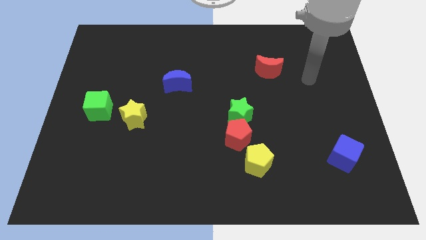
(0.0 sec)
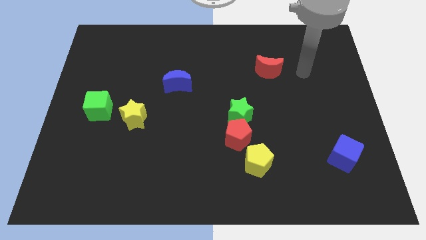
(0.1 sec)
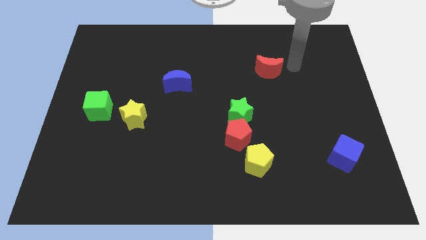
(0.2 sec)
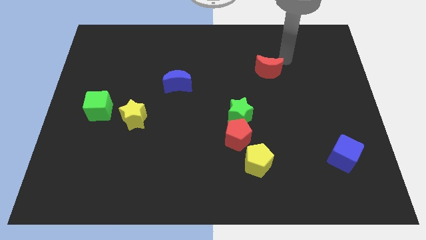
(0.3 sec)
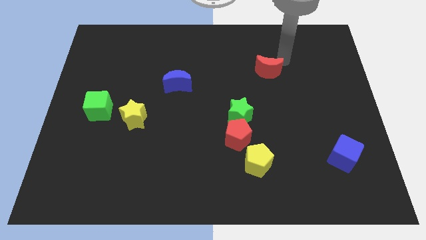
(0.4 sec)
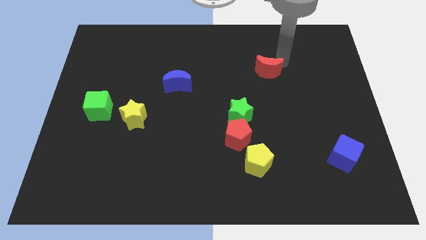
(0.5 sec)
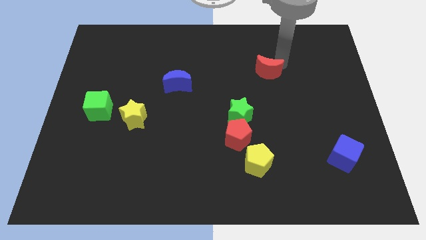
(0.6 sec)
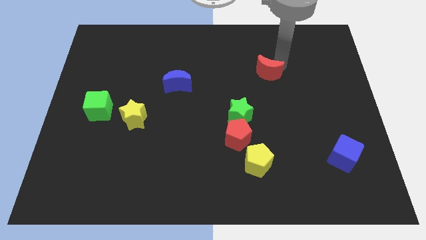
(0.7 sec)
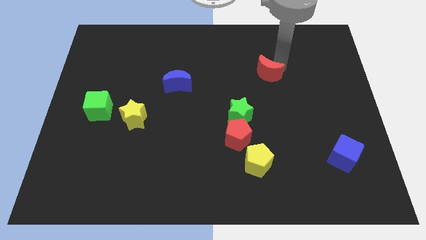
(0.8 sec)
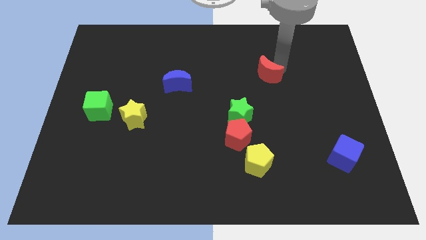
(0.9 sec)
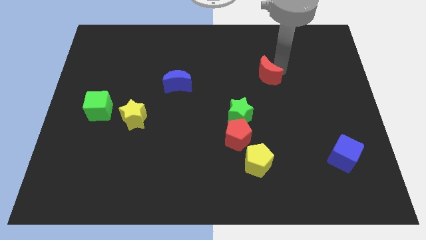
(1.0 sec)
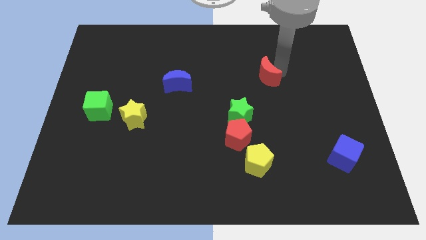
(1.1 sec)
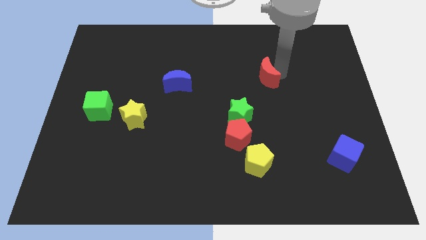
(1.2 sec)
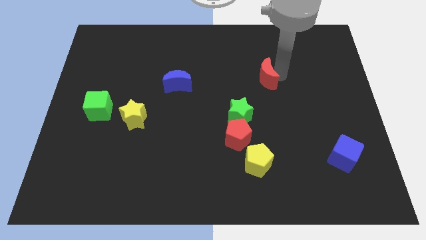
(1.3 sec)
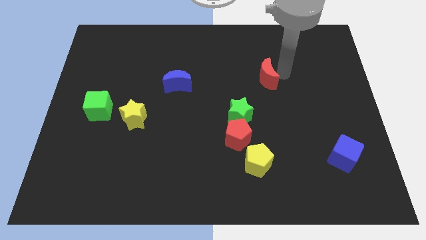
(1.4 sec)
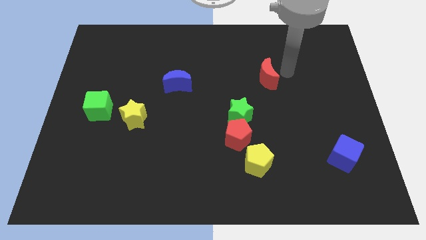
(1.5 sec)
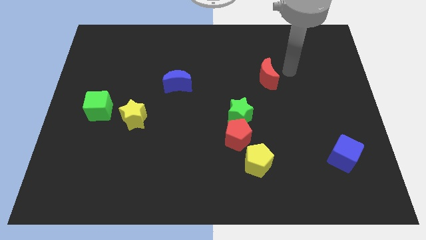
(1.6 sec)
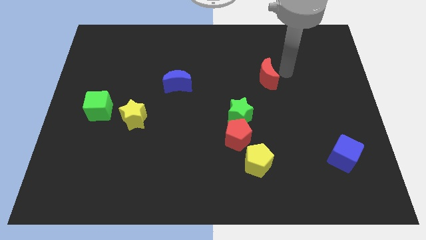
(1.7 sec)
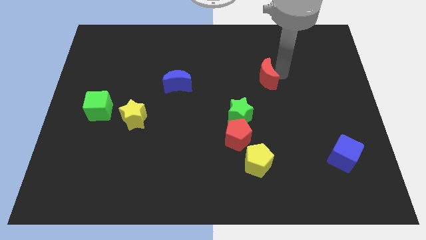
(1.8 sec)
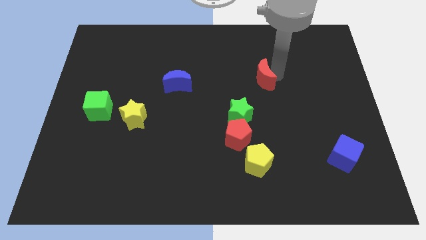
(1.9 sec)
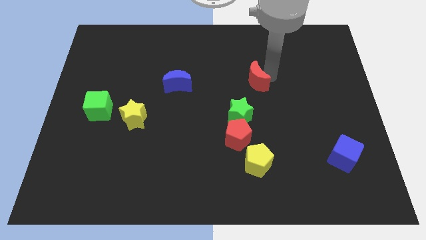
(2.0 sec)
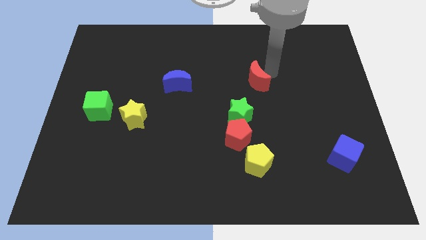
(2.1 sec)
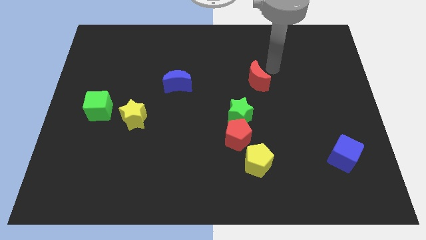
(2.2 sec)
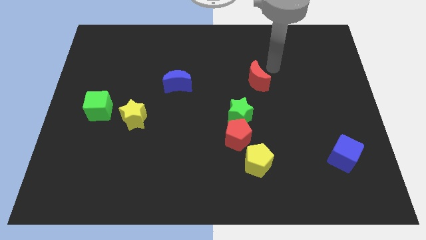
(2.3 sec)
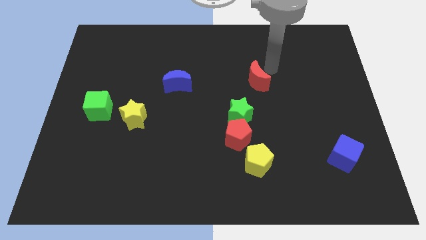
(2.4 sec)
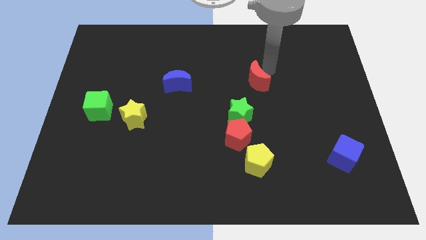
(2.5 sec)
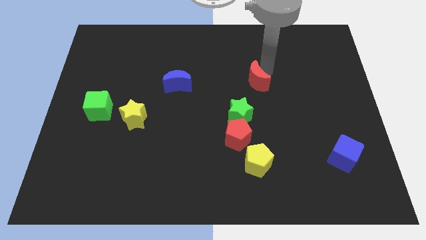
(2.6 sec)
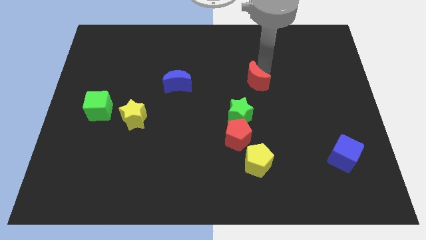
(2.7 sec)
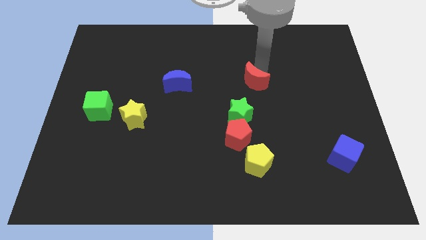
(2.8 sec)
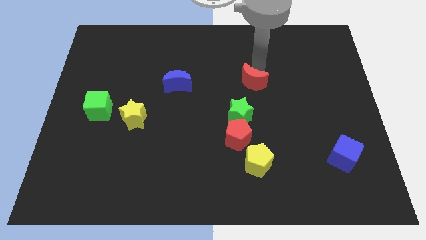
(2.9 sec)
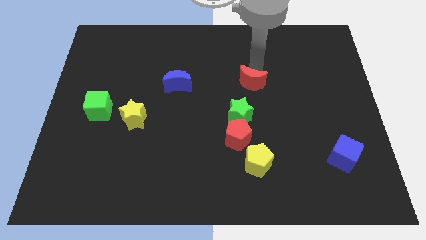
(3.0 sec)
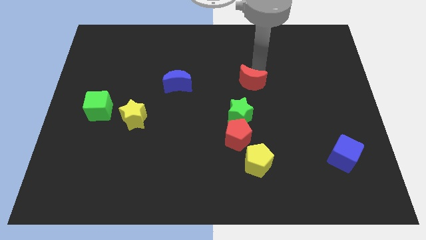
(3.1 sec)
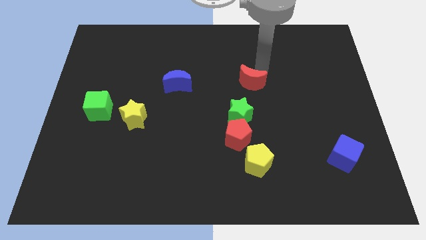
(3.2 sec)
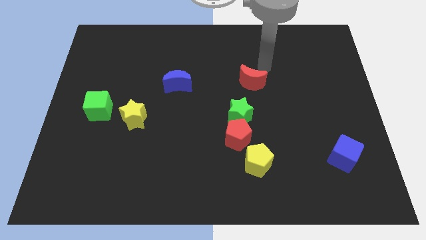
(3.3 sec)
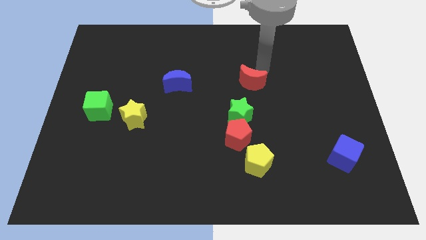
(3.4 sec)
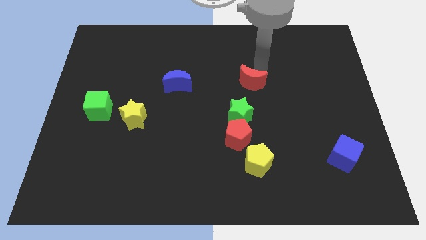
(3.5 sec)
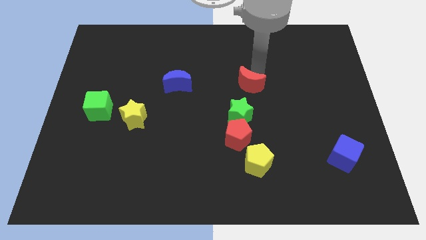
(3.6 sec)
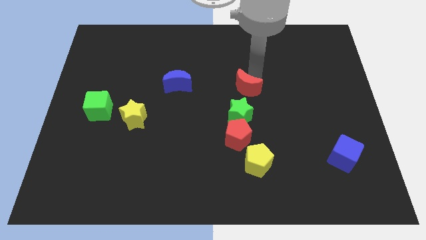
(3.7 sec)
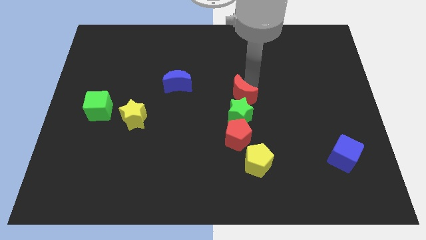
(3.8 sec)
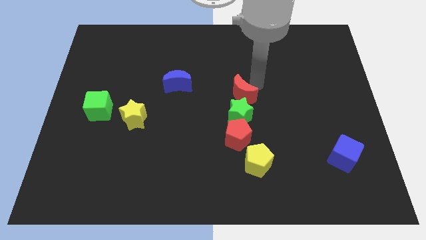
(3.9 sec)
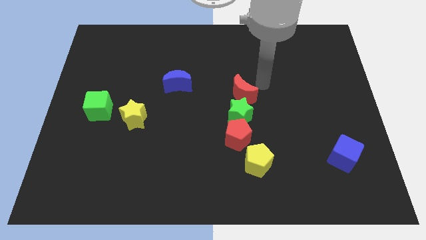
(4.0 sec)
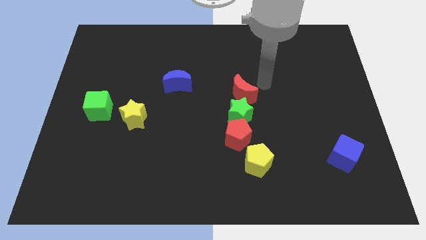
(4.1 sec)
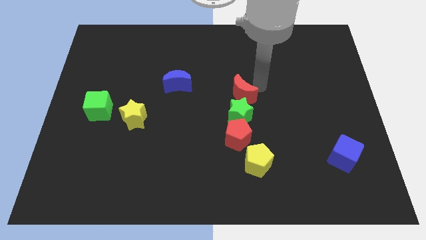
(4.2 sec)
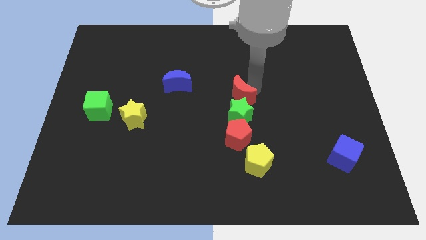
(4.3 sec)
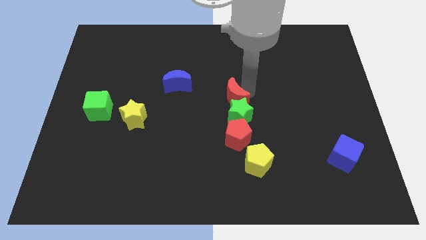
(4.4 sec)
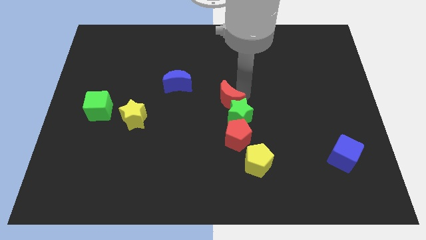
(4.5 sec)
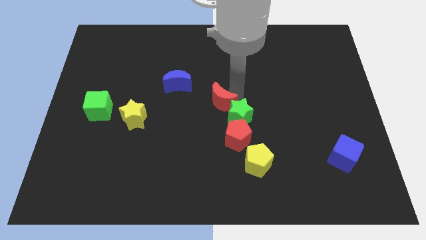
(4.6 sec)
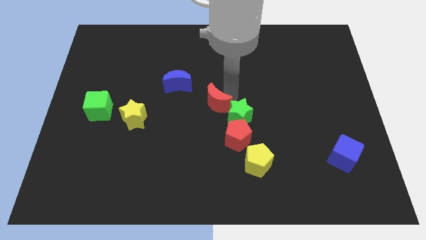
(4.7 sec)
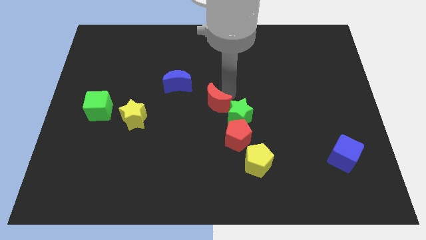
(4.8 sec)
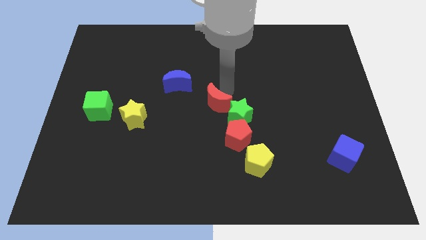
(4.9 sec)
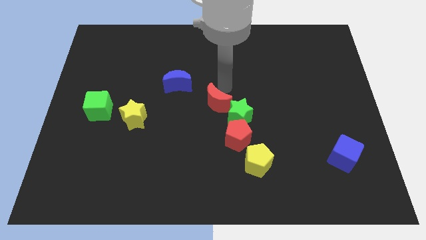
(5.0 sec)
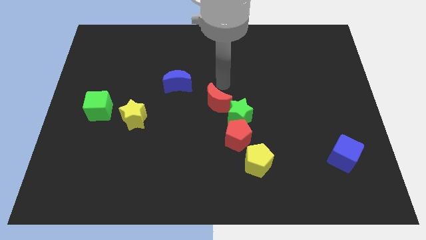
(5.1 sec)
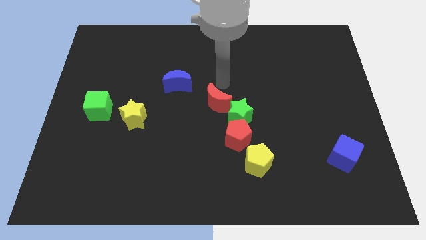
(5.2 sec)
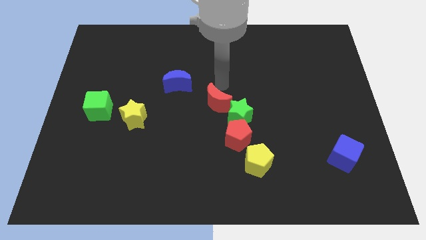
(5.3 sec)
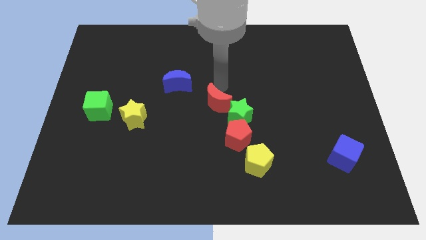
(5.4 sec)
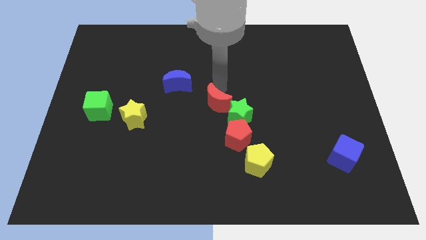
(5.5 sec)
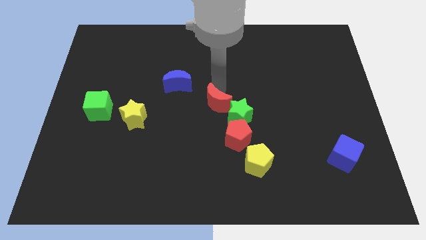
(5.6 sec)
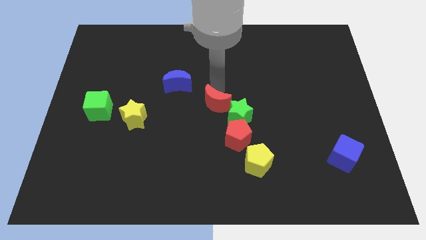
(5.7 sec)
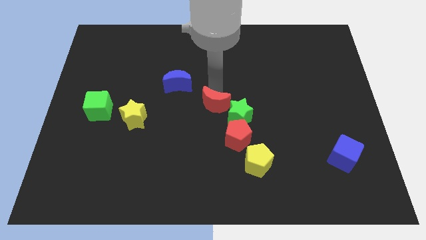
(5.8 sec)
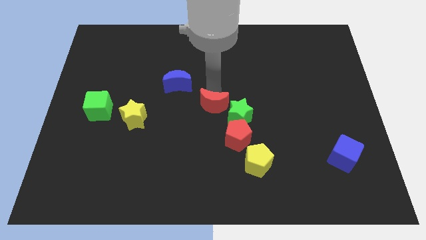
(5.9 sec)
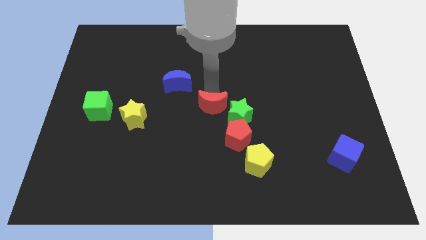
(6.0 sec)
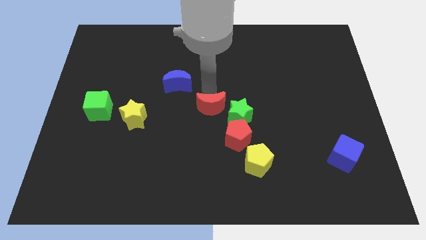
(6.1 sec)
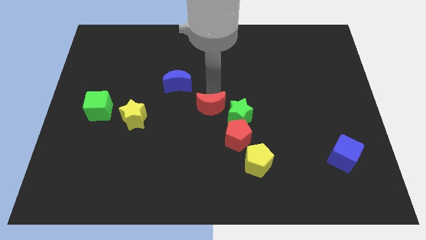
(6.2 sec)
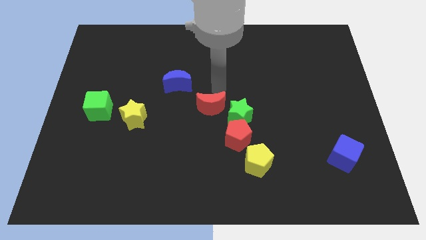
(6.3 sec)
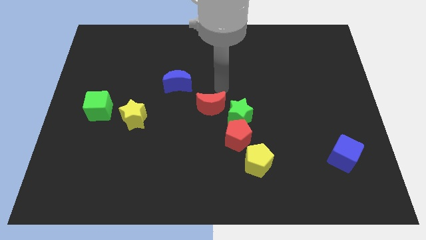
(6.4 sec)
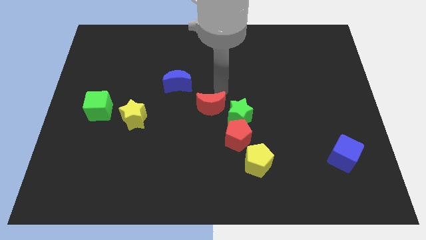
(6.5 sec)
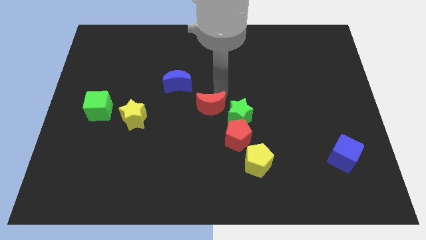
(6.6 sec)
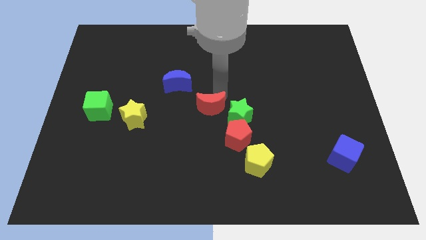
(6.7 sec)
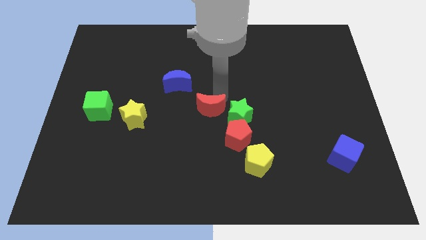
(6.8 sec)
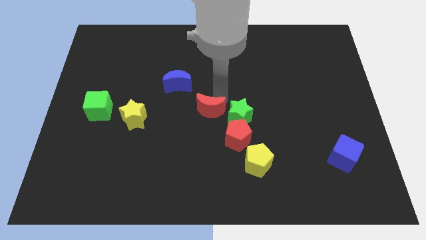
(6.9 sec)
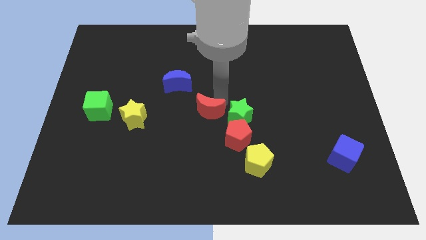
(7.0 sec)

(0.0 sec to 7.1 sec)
move the red moon downwards and then to the left

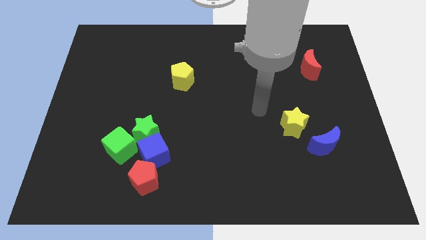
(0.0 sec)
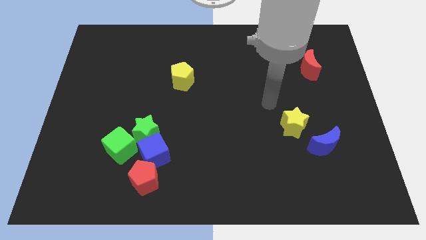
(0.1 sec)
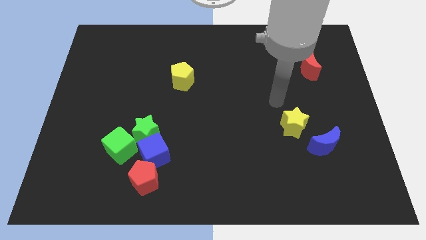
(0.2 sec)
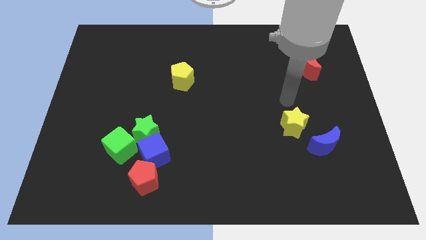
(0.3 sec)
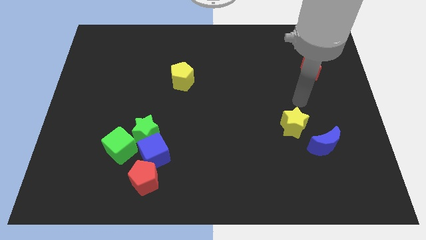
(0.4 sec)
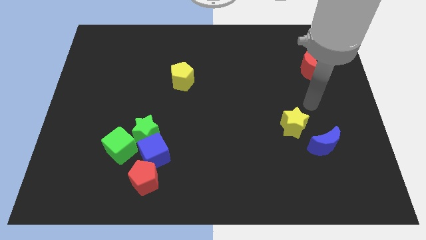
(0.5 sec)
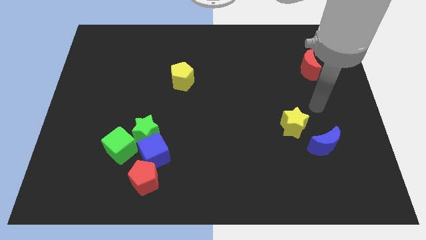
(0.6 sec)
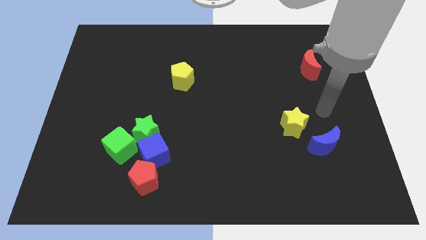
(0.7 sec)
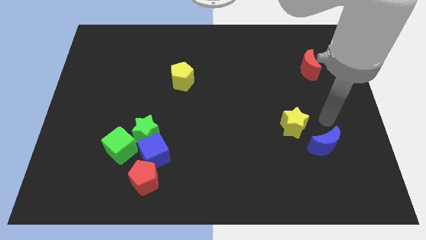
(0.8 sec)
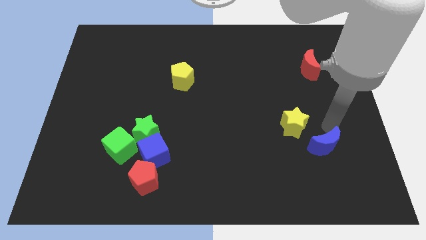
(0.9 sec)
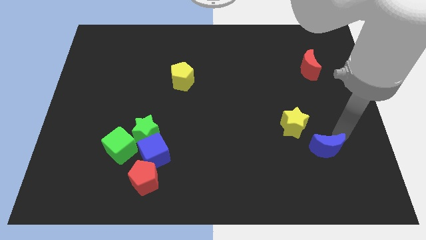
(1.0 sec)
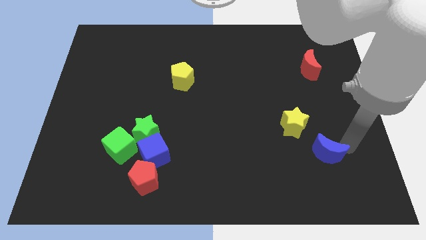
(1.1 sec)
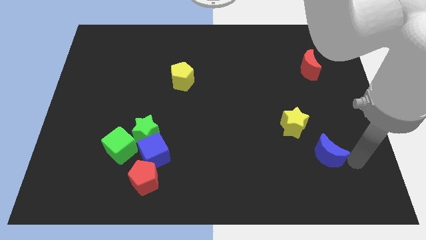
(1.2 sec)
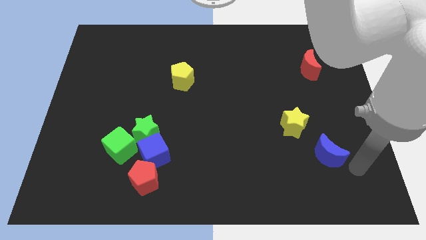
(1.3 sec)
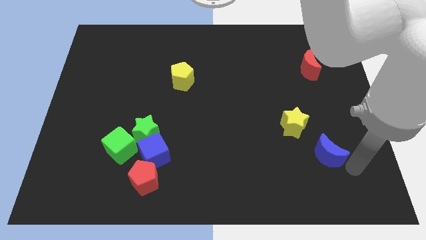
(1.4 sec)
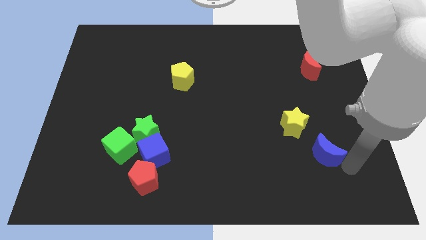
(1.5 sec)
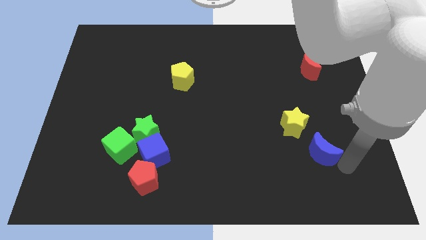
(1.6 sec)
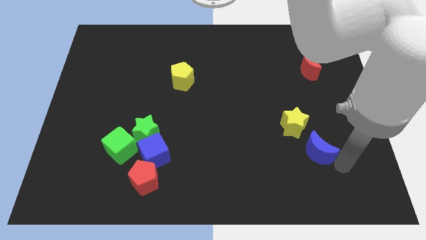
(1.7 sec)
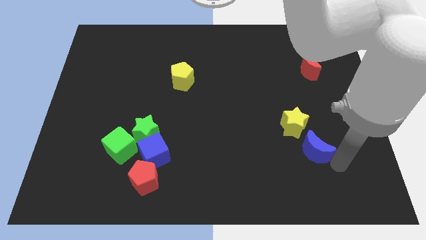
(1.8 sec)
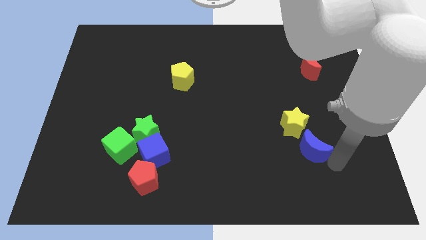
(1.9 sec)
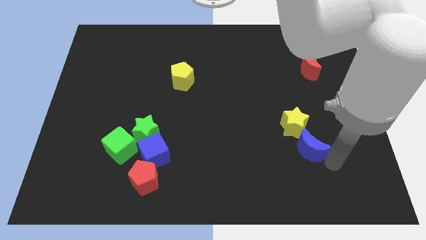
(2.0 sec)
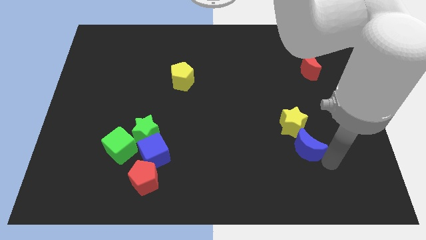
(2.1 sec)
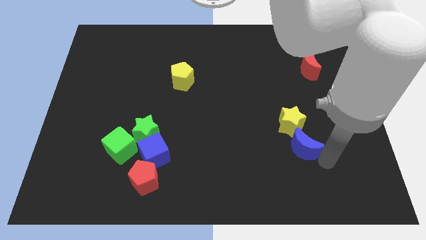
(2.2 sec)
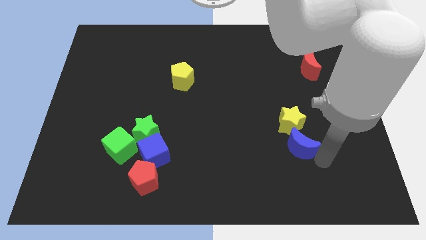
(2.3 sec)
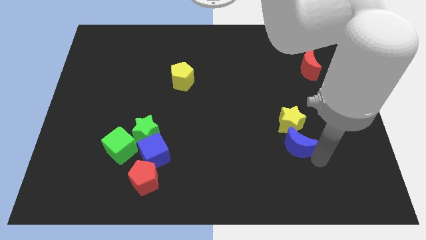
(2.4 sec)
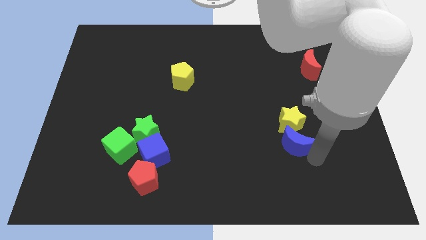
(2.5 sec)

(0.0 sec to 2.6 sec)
push the blue moon to the left slightly
